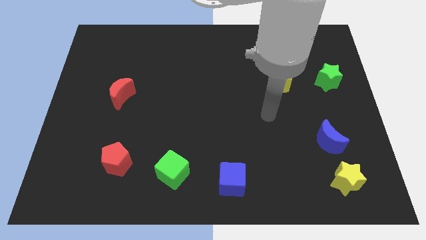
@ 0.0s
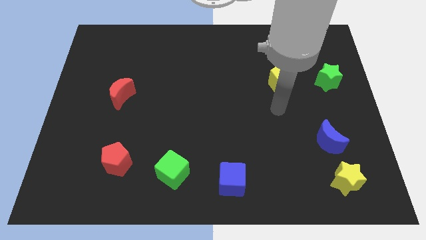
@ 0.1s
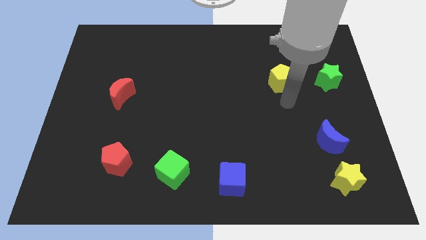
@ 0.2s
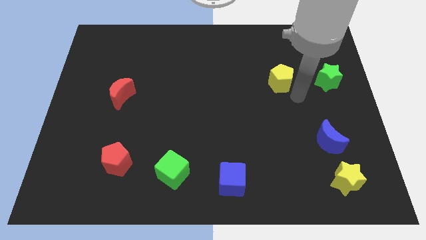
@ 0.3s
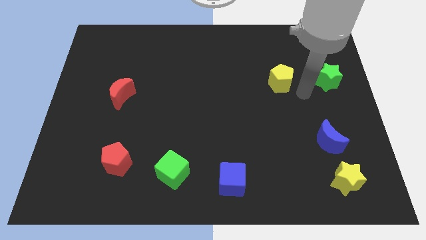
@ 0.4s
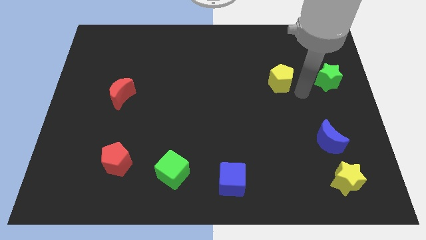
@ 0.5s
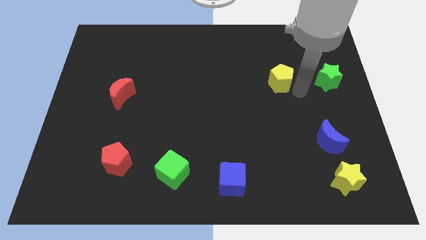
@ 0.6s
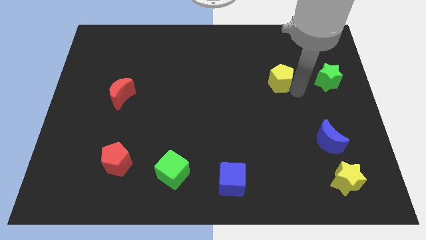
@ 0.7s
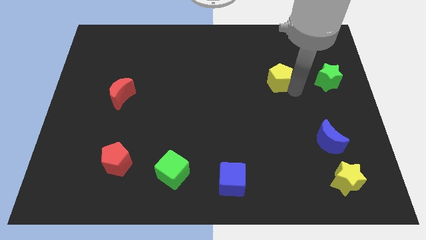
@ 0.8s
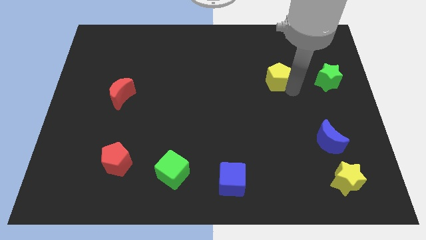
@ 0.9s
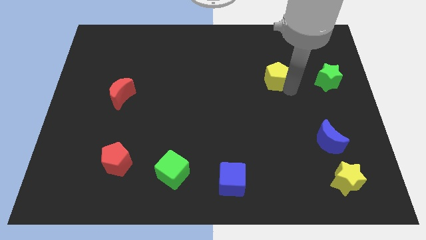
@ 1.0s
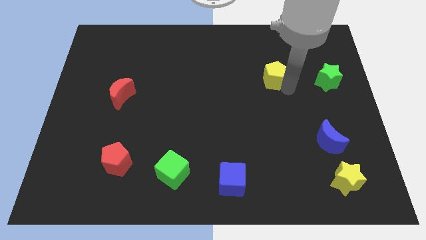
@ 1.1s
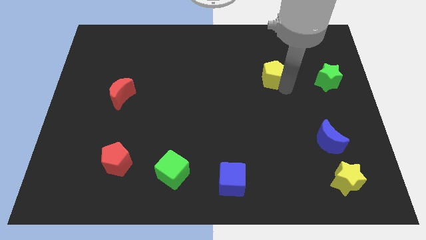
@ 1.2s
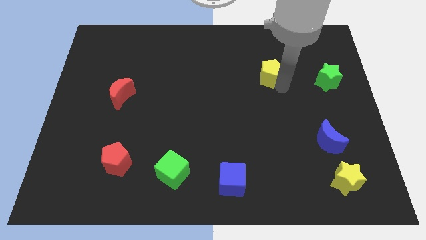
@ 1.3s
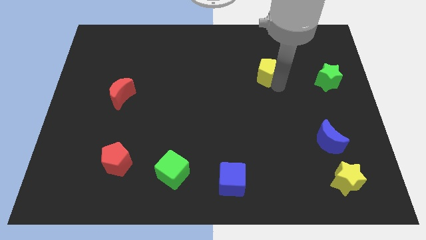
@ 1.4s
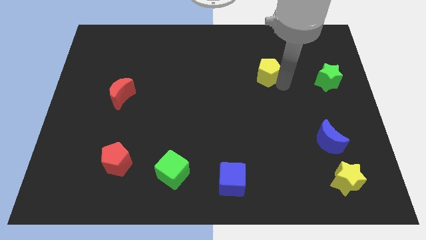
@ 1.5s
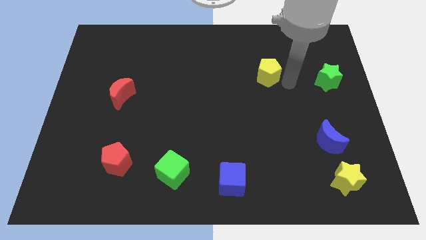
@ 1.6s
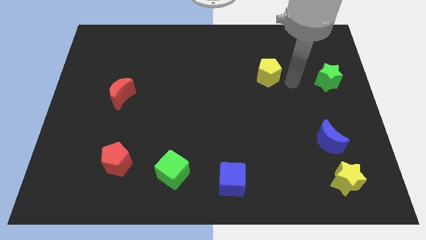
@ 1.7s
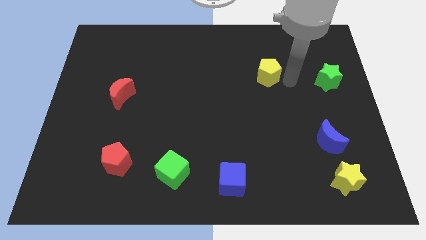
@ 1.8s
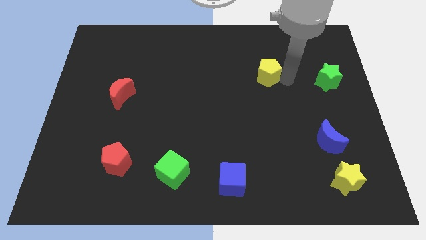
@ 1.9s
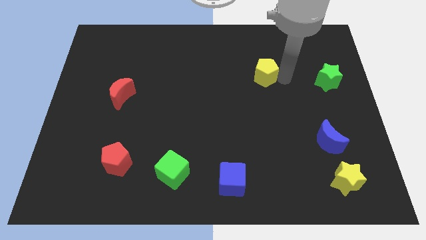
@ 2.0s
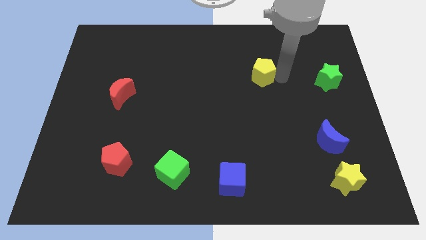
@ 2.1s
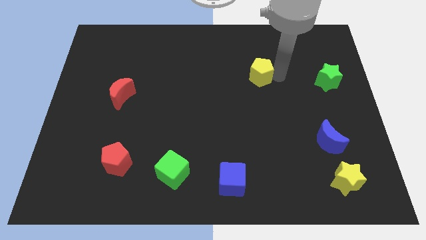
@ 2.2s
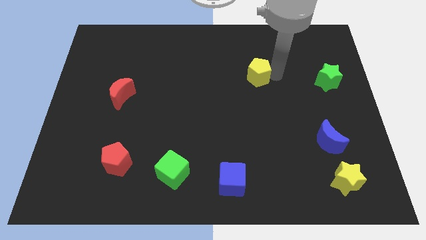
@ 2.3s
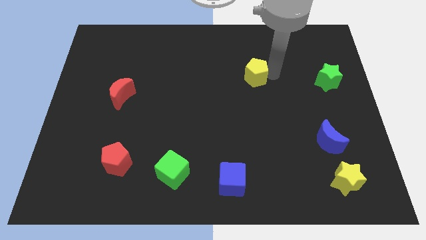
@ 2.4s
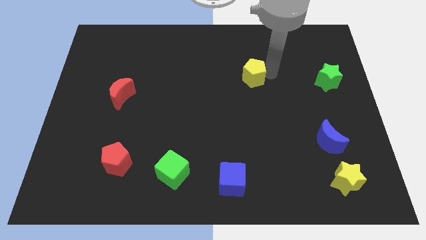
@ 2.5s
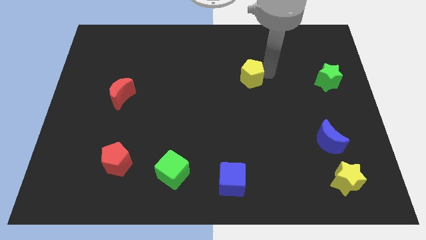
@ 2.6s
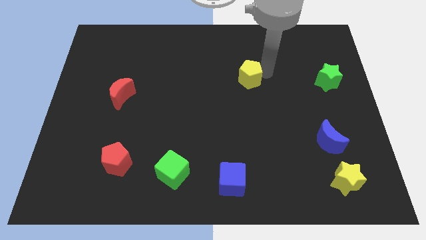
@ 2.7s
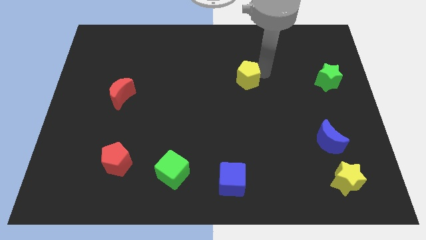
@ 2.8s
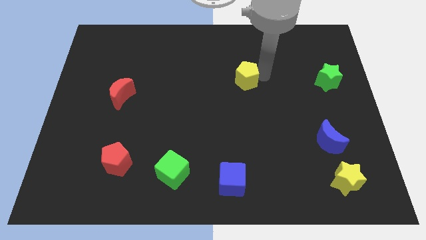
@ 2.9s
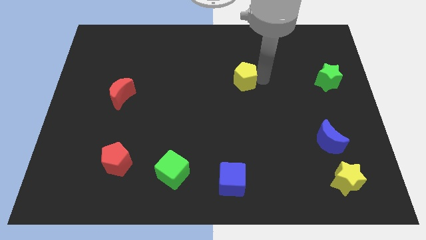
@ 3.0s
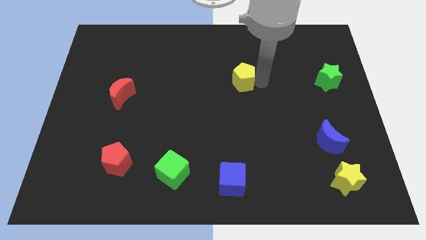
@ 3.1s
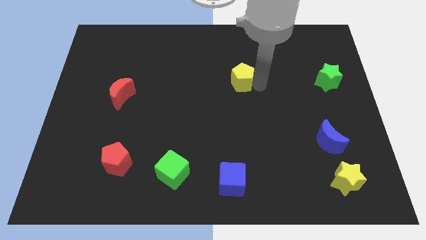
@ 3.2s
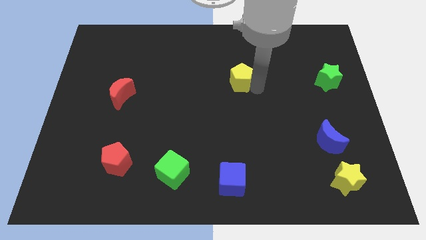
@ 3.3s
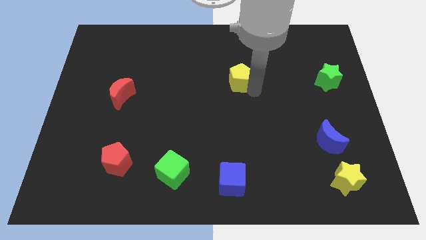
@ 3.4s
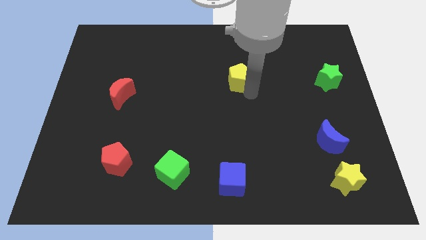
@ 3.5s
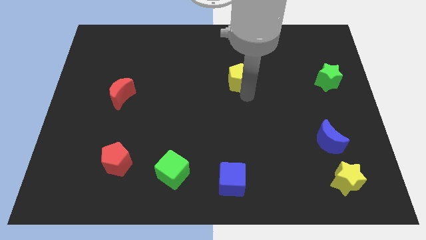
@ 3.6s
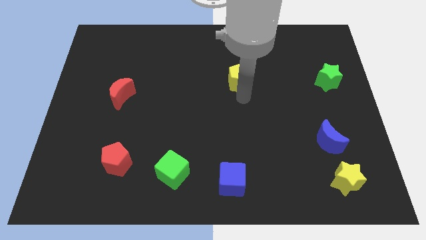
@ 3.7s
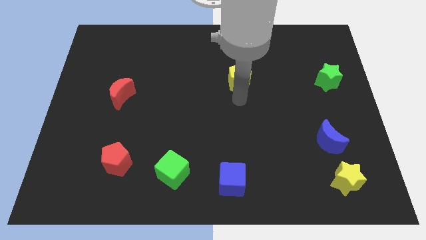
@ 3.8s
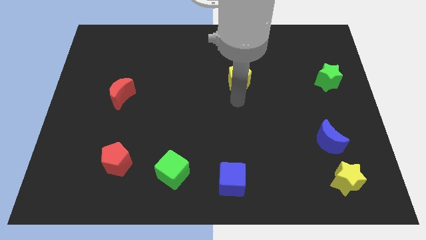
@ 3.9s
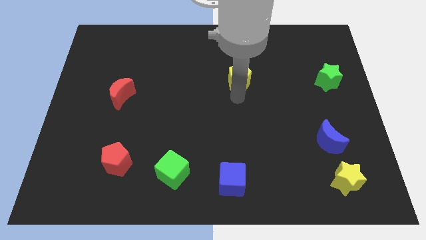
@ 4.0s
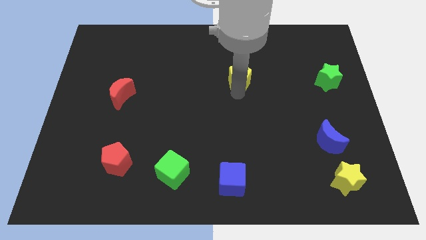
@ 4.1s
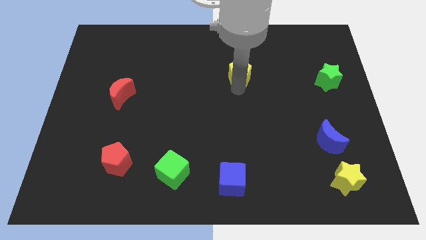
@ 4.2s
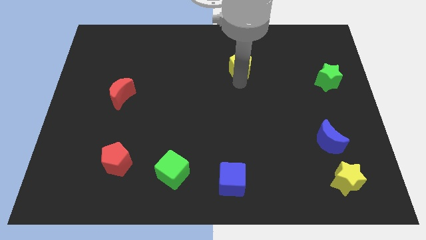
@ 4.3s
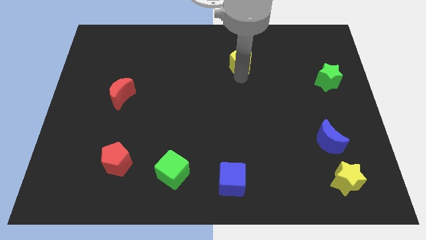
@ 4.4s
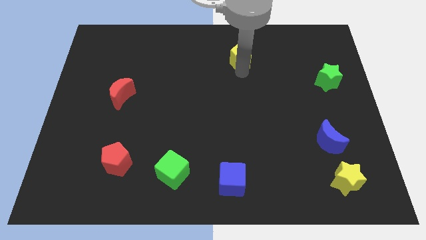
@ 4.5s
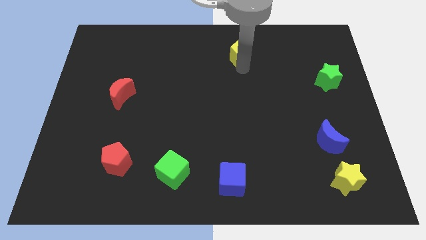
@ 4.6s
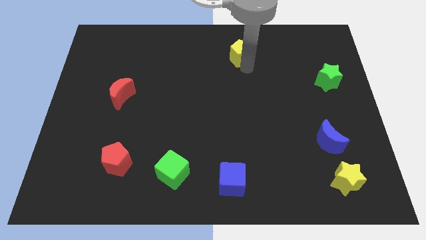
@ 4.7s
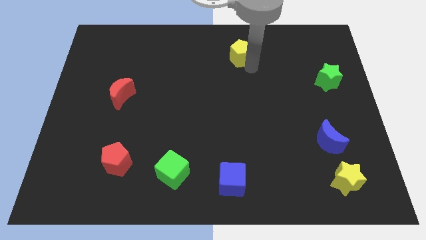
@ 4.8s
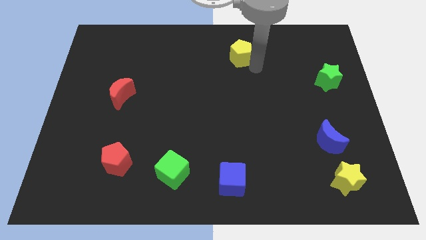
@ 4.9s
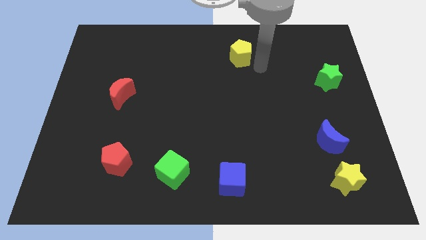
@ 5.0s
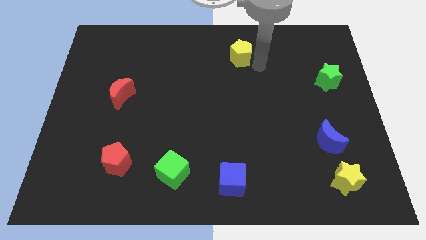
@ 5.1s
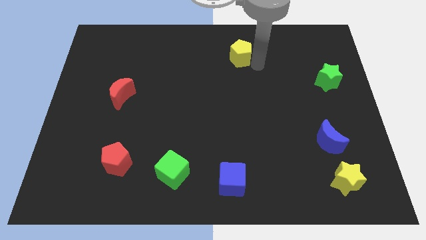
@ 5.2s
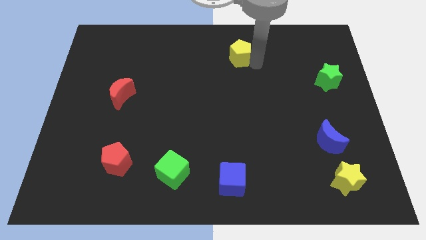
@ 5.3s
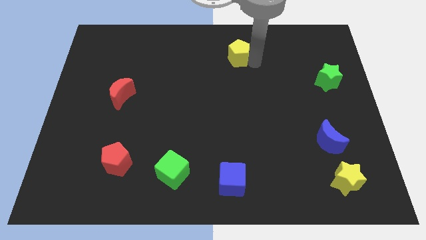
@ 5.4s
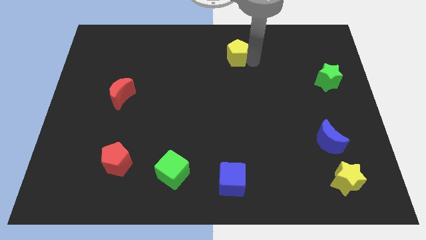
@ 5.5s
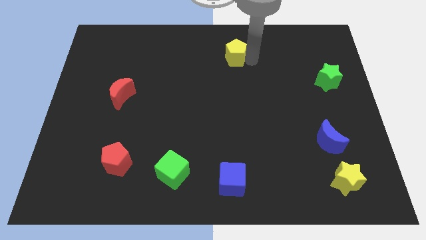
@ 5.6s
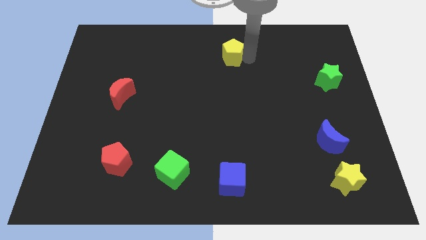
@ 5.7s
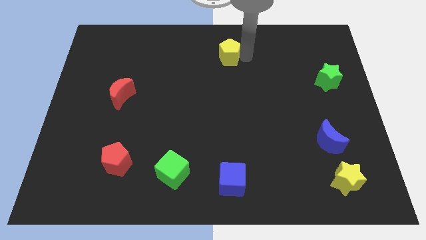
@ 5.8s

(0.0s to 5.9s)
put the yellow pentagon to the top

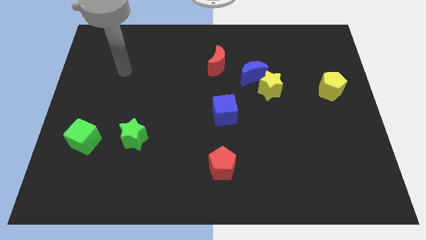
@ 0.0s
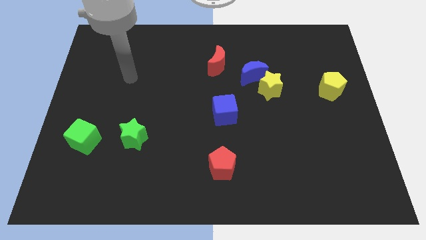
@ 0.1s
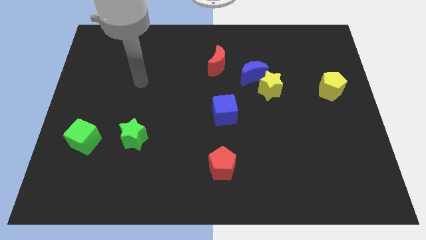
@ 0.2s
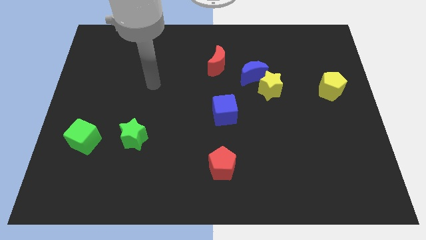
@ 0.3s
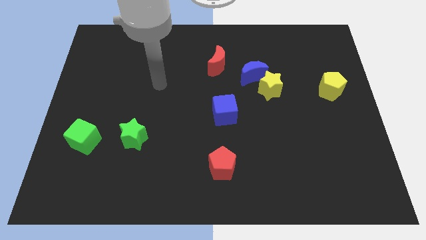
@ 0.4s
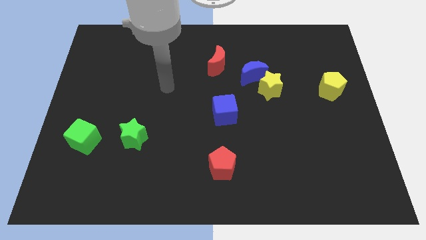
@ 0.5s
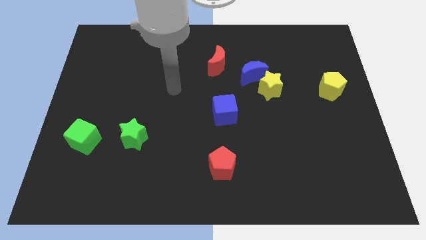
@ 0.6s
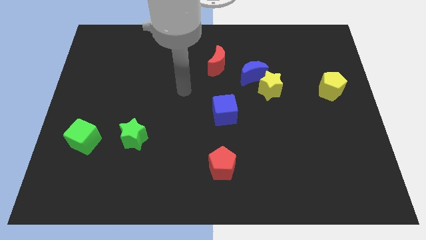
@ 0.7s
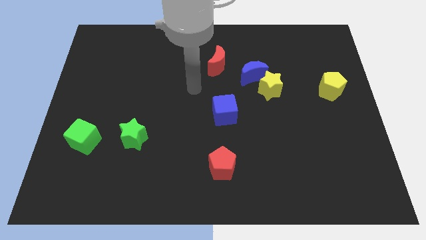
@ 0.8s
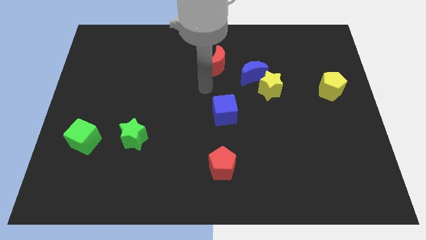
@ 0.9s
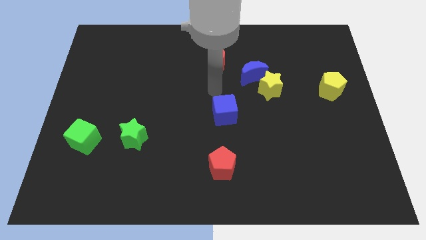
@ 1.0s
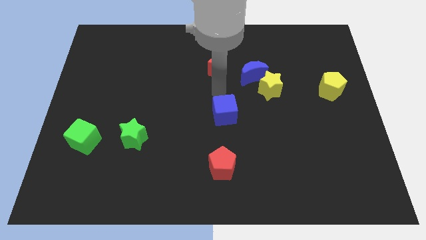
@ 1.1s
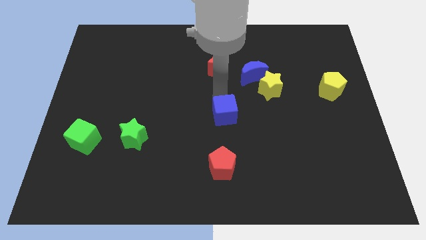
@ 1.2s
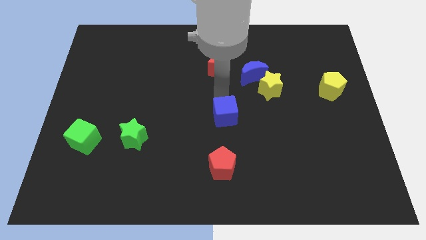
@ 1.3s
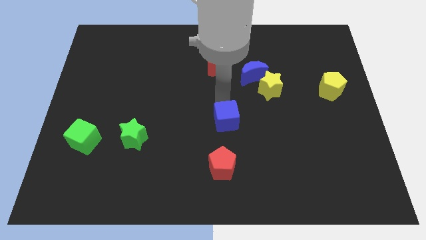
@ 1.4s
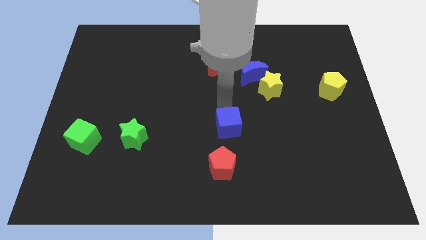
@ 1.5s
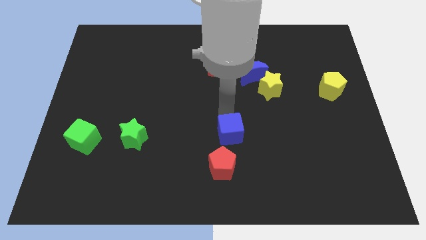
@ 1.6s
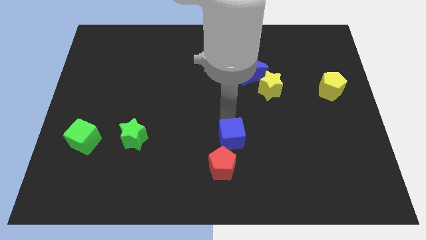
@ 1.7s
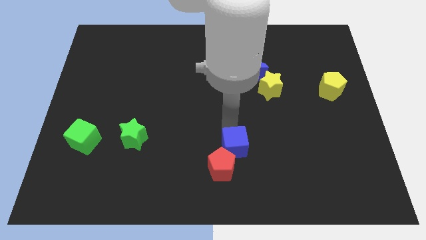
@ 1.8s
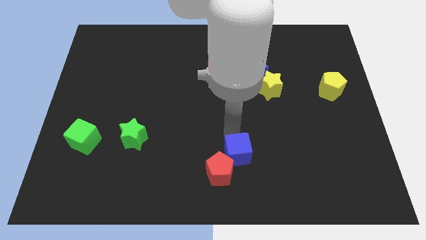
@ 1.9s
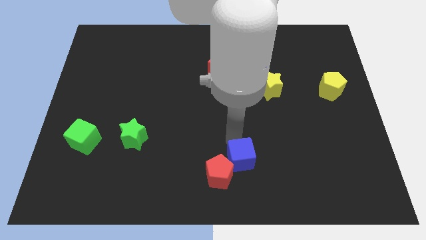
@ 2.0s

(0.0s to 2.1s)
put the blue cube to the bottom side
